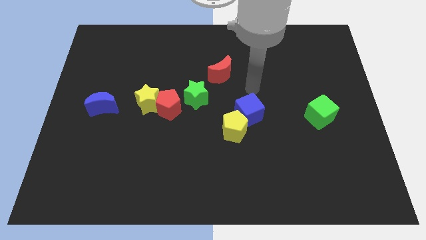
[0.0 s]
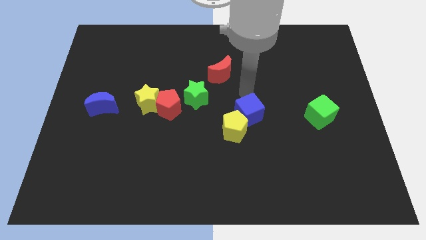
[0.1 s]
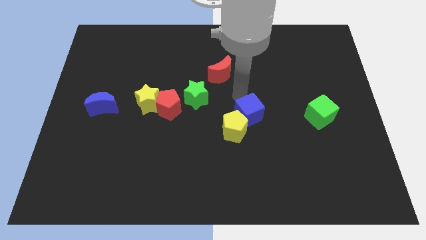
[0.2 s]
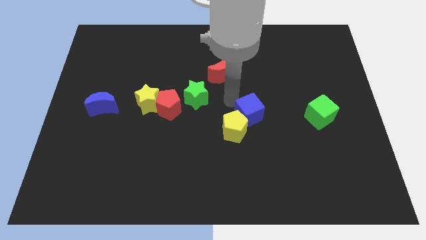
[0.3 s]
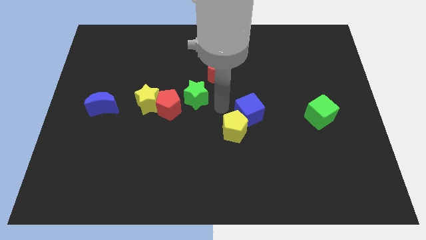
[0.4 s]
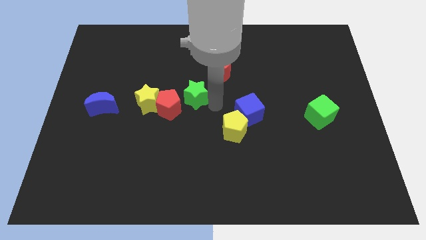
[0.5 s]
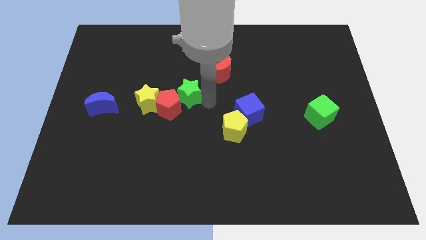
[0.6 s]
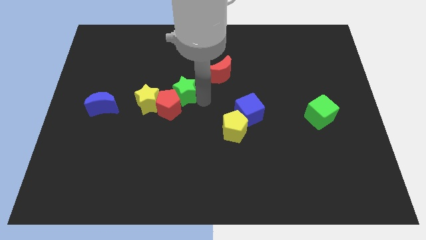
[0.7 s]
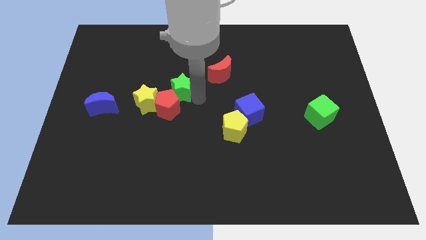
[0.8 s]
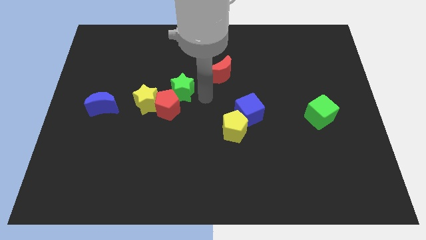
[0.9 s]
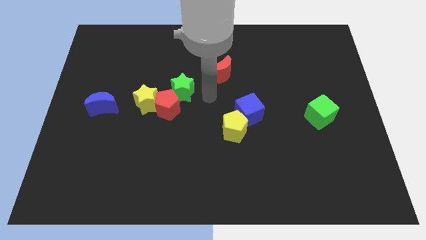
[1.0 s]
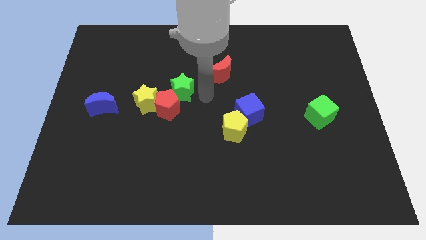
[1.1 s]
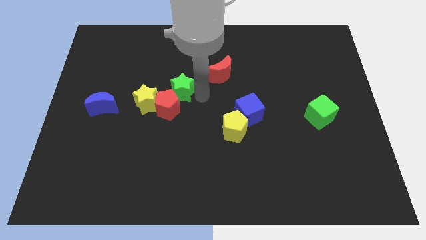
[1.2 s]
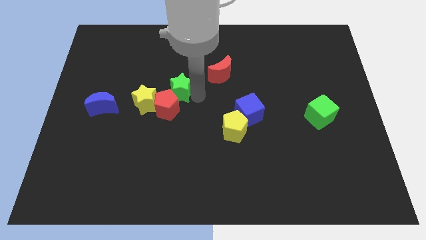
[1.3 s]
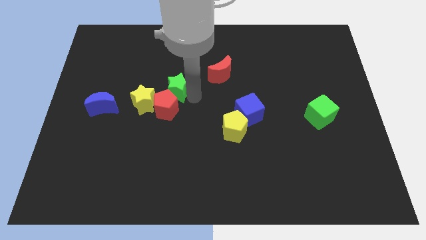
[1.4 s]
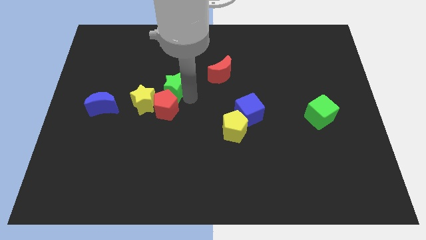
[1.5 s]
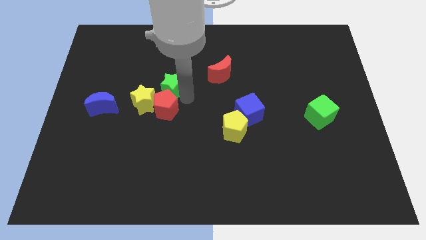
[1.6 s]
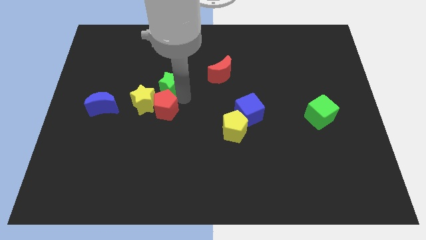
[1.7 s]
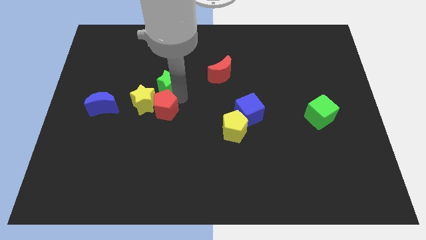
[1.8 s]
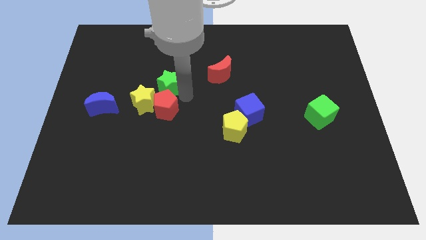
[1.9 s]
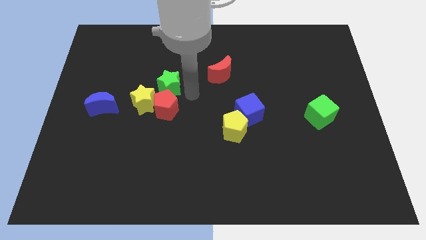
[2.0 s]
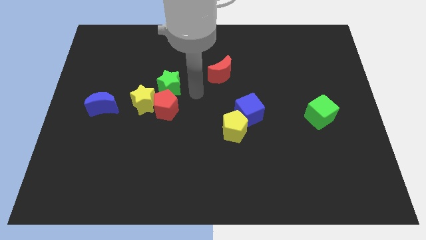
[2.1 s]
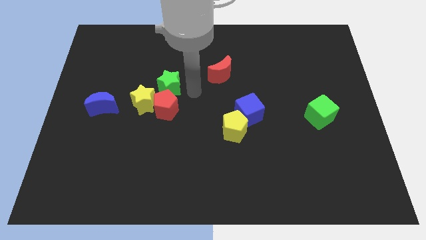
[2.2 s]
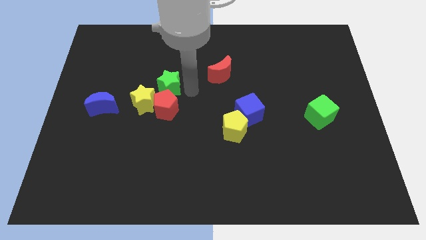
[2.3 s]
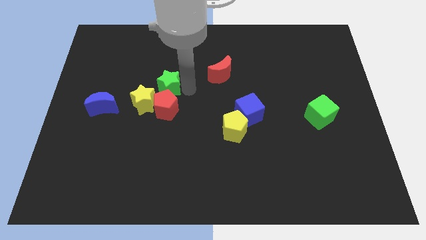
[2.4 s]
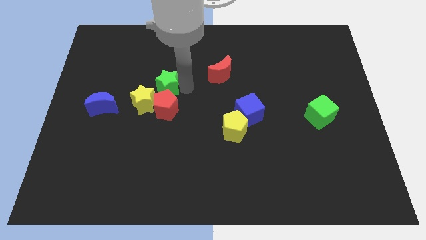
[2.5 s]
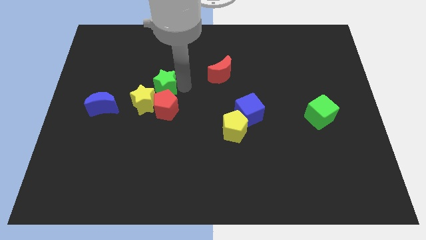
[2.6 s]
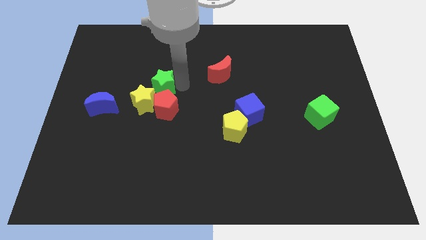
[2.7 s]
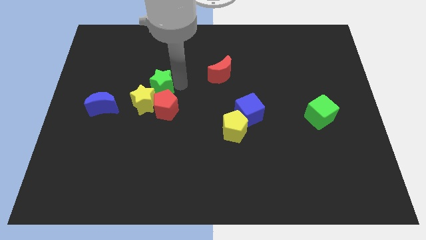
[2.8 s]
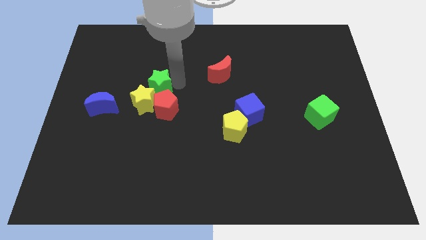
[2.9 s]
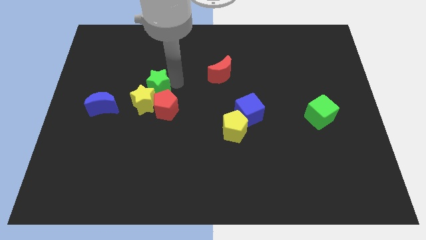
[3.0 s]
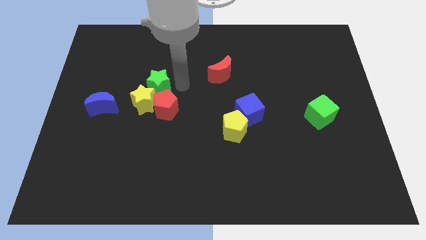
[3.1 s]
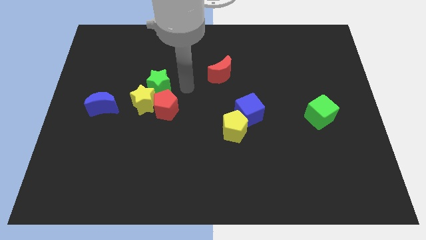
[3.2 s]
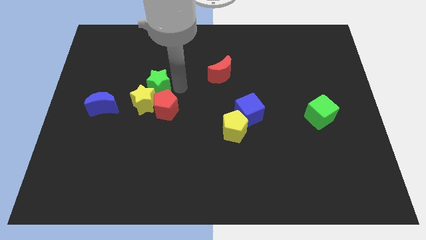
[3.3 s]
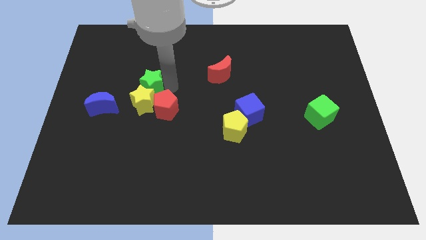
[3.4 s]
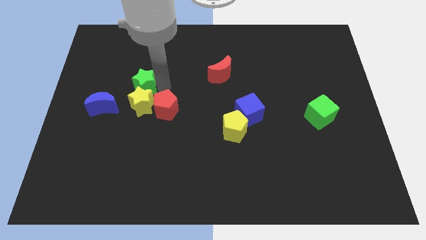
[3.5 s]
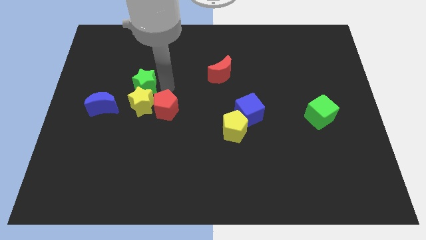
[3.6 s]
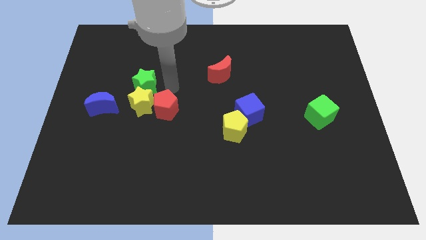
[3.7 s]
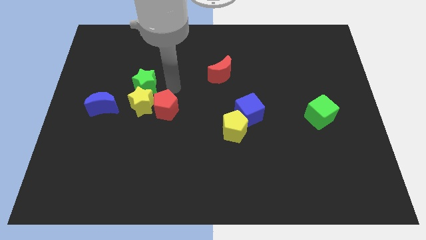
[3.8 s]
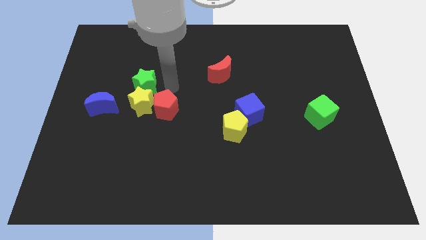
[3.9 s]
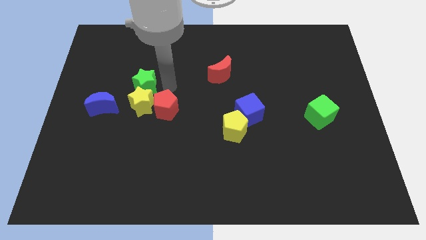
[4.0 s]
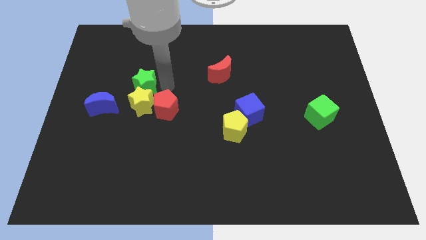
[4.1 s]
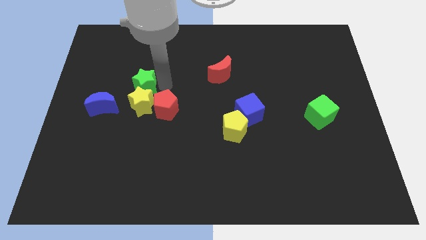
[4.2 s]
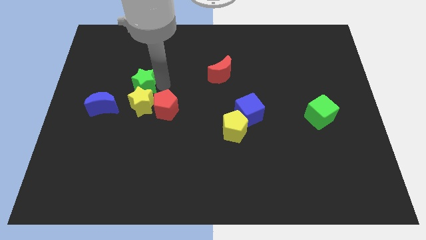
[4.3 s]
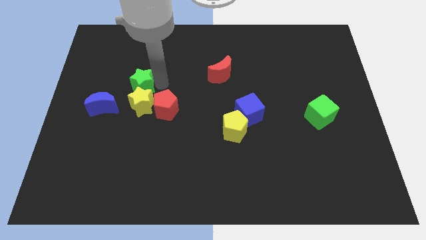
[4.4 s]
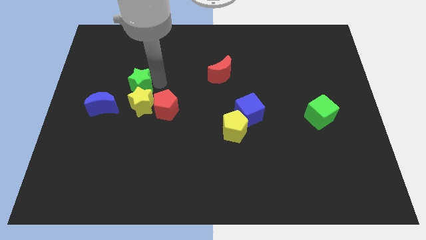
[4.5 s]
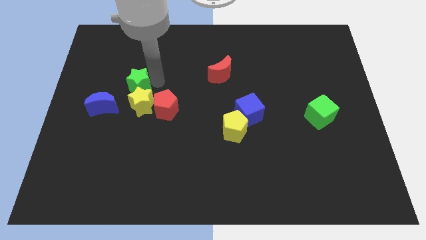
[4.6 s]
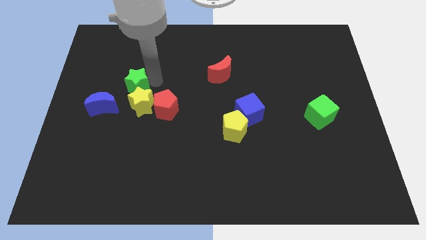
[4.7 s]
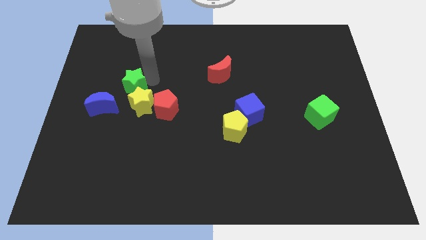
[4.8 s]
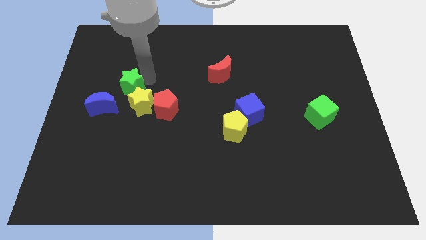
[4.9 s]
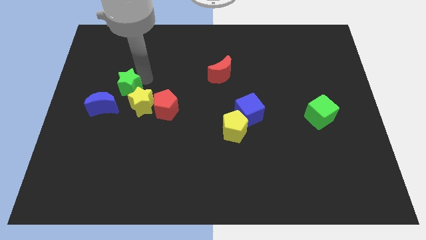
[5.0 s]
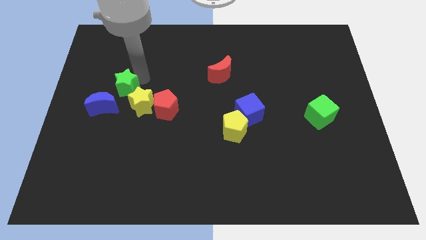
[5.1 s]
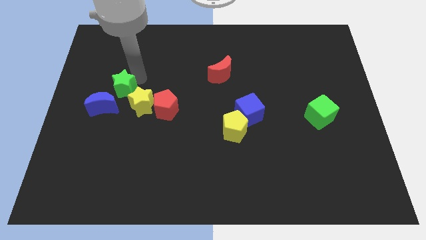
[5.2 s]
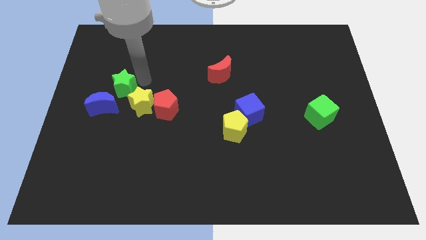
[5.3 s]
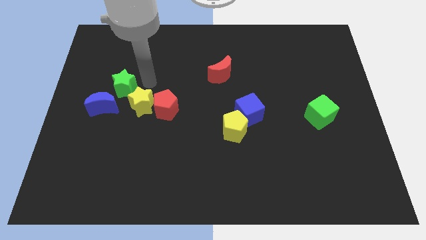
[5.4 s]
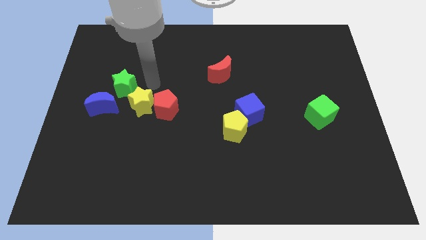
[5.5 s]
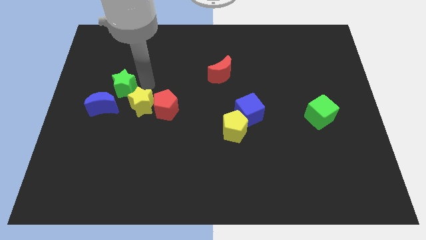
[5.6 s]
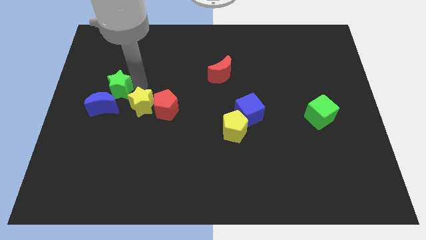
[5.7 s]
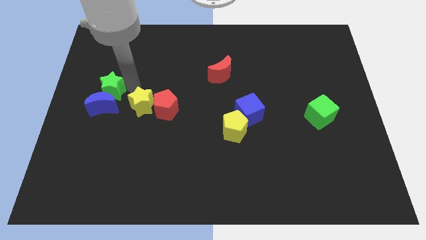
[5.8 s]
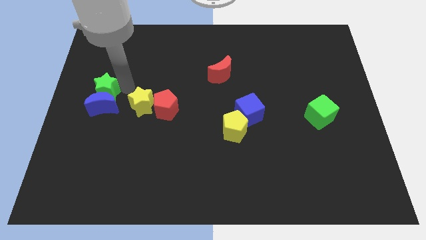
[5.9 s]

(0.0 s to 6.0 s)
put the green star to the left side
